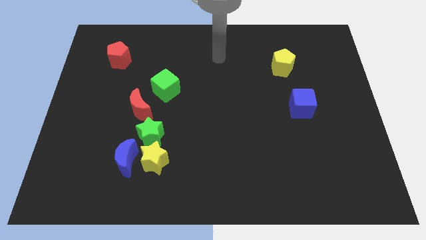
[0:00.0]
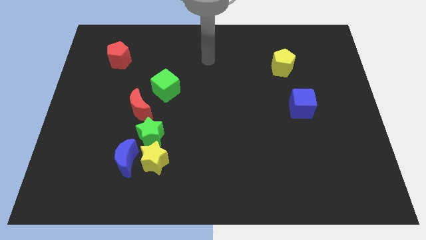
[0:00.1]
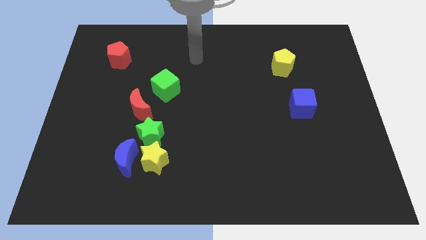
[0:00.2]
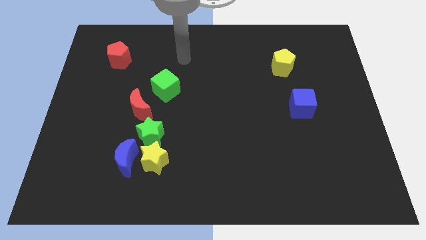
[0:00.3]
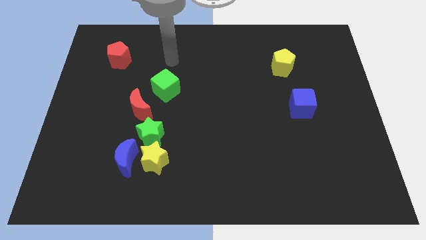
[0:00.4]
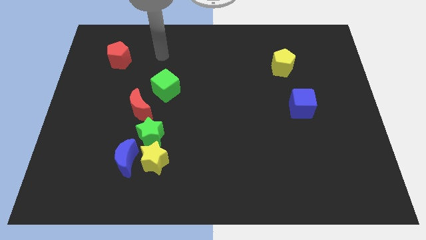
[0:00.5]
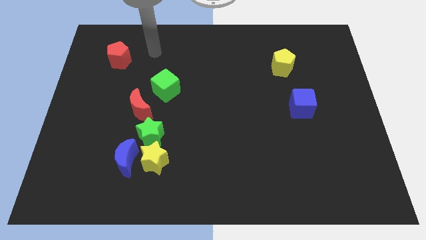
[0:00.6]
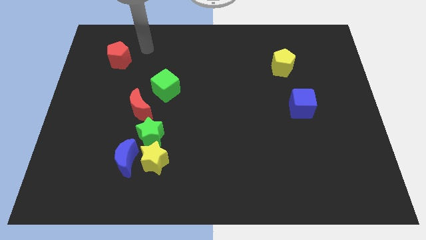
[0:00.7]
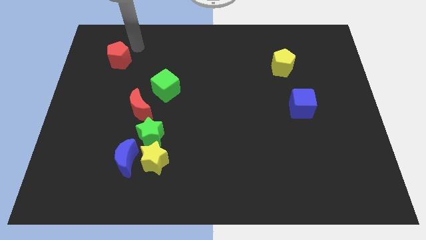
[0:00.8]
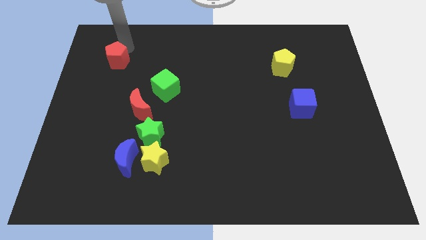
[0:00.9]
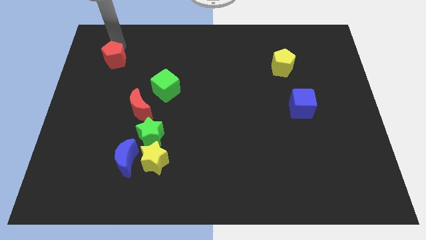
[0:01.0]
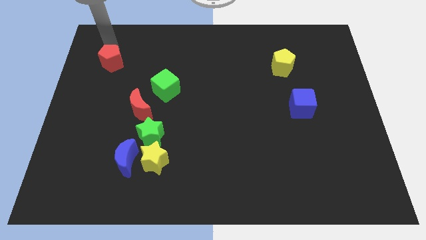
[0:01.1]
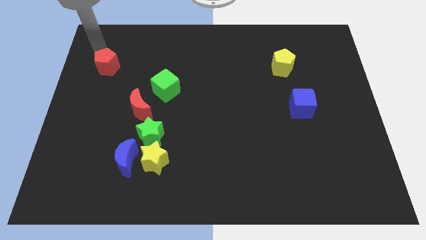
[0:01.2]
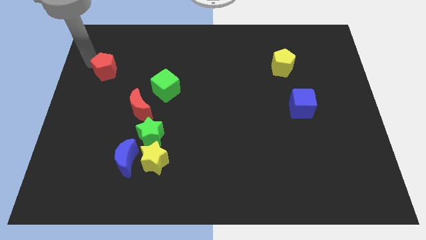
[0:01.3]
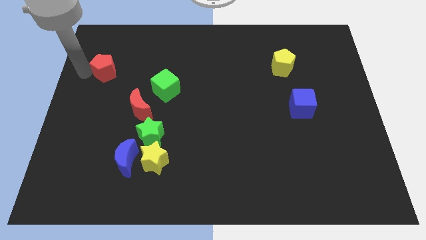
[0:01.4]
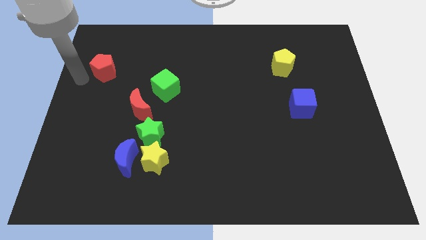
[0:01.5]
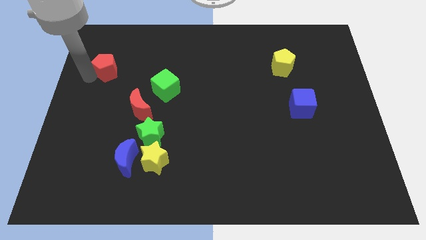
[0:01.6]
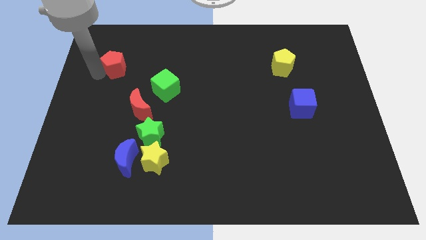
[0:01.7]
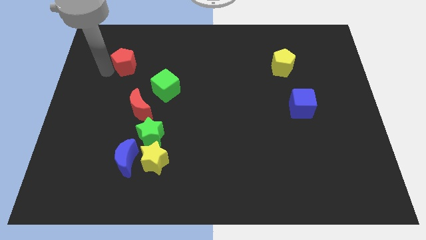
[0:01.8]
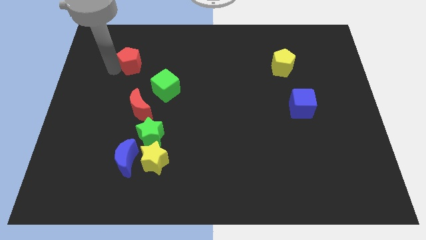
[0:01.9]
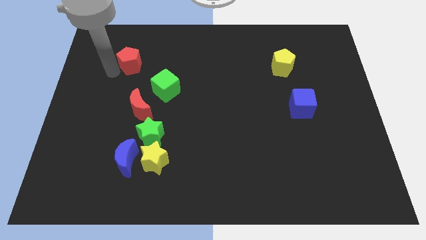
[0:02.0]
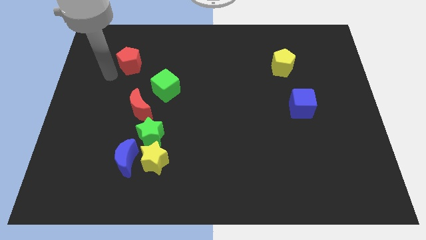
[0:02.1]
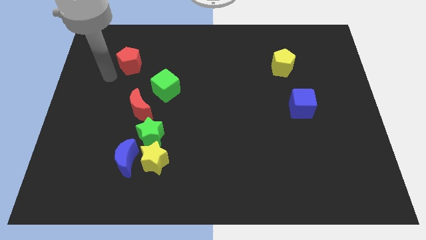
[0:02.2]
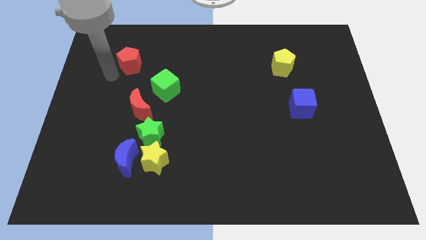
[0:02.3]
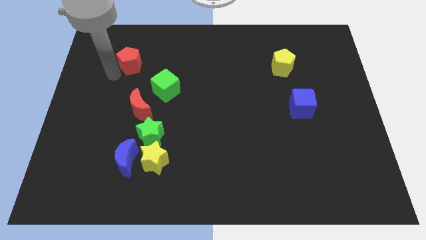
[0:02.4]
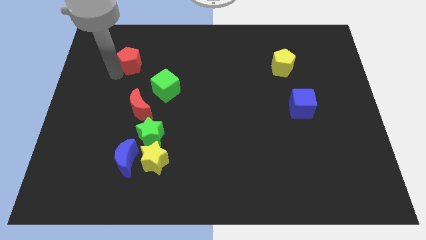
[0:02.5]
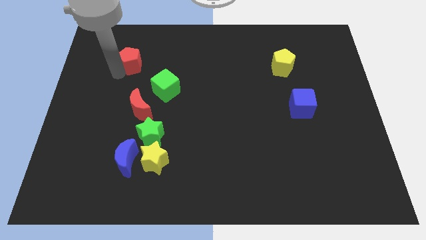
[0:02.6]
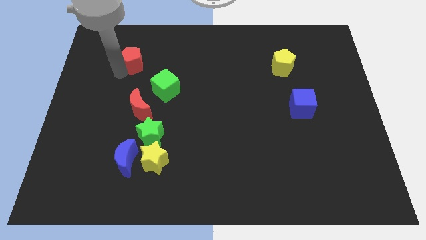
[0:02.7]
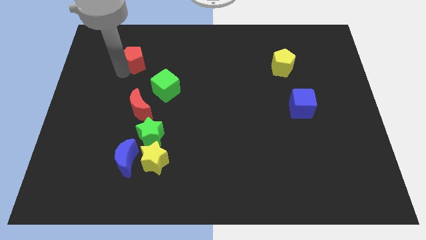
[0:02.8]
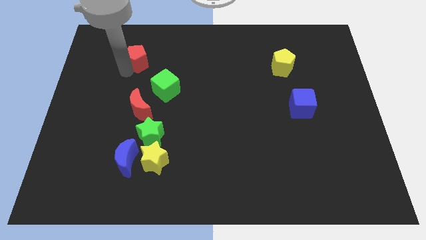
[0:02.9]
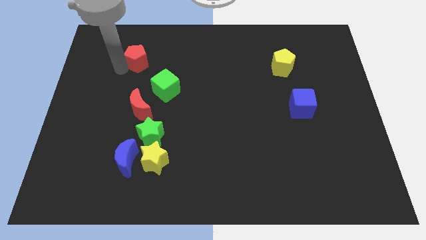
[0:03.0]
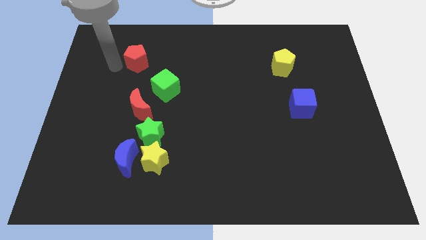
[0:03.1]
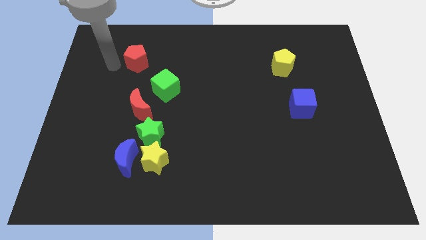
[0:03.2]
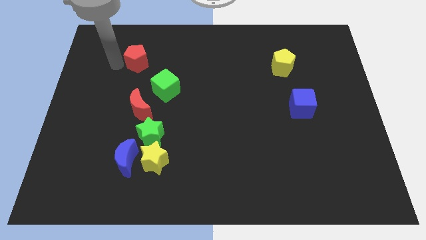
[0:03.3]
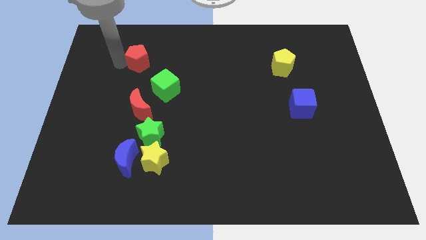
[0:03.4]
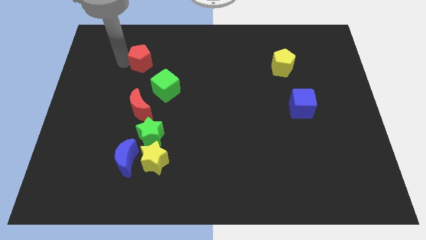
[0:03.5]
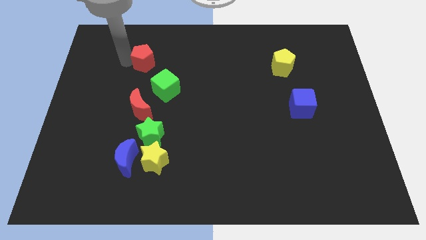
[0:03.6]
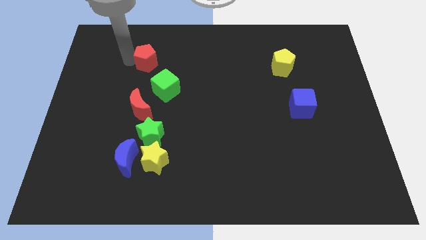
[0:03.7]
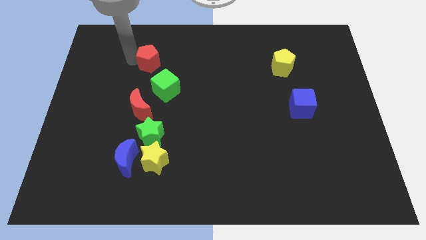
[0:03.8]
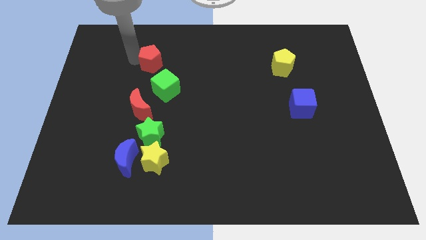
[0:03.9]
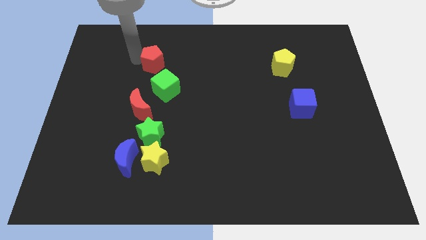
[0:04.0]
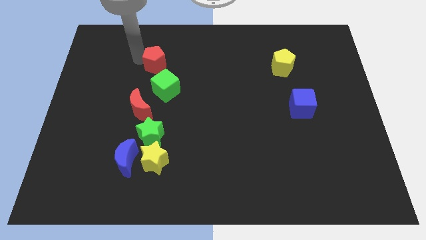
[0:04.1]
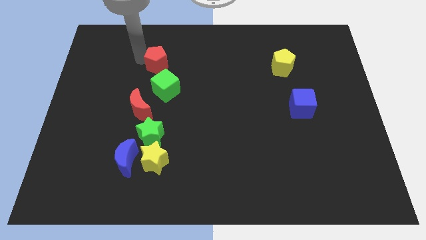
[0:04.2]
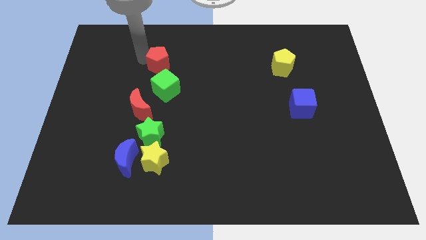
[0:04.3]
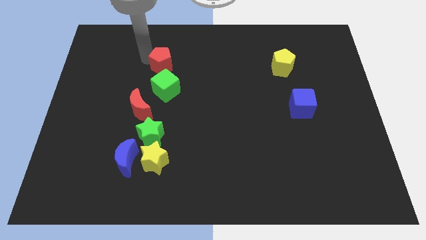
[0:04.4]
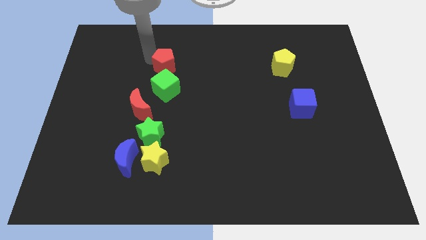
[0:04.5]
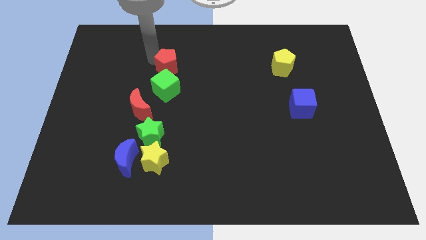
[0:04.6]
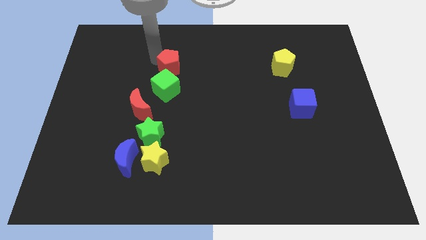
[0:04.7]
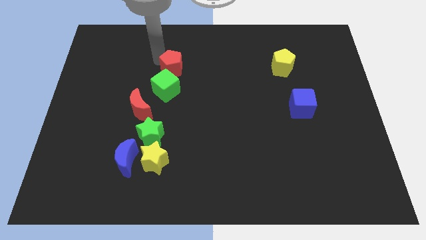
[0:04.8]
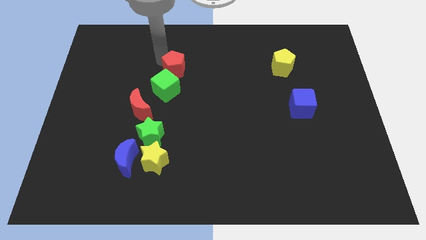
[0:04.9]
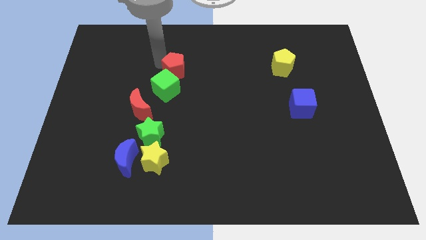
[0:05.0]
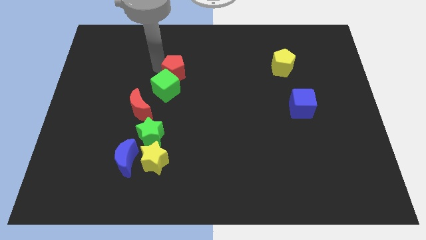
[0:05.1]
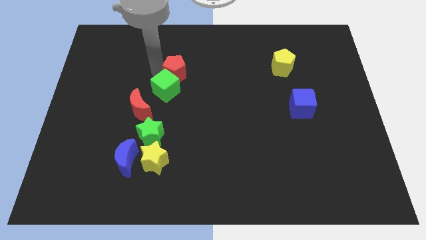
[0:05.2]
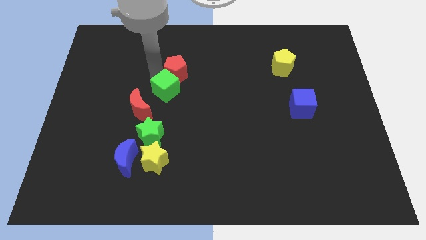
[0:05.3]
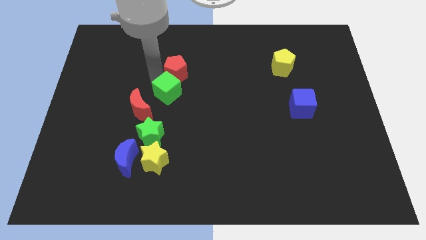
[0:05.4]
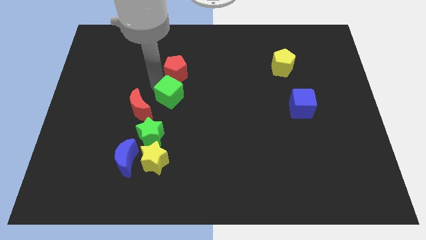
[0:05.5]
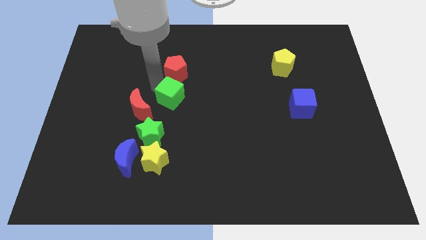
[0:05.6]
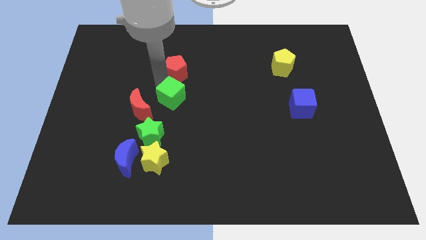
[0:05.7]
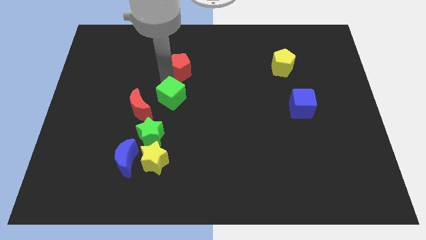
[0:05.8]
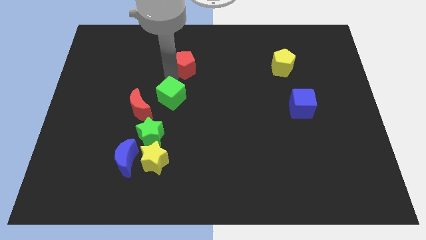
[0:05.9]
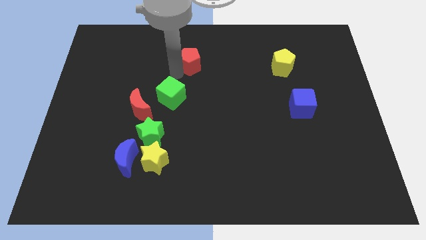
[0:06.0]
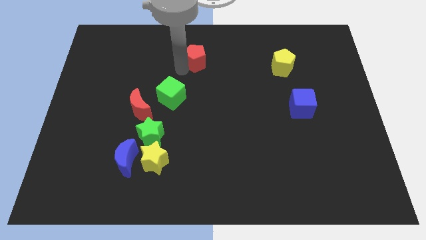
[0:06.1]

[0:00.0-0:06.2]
move the red pentagon right

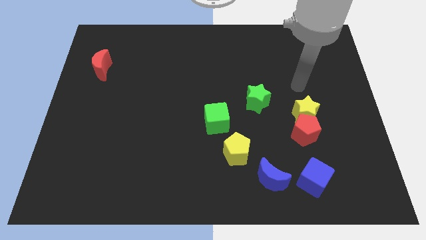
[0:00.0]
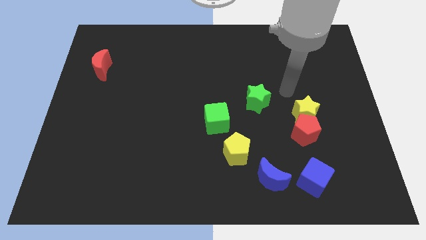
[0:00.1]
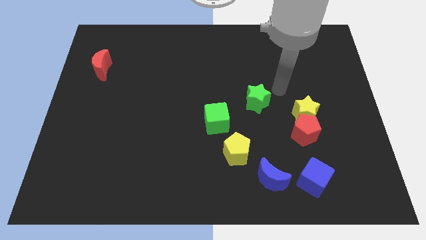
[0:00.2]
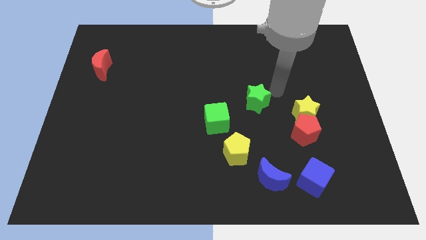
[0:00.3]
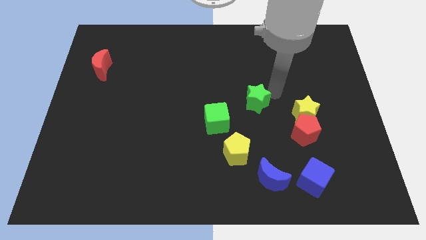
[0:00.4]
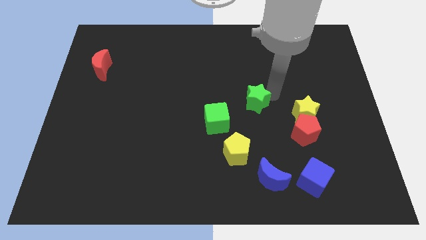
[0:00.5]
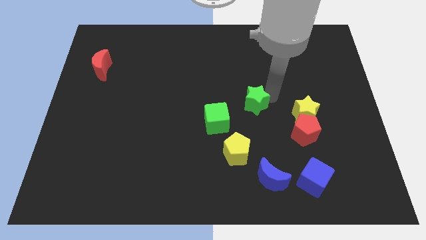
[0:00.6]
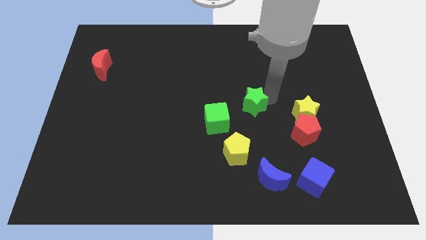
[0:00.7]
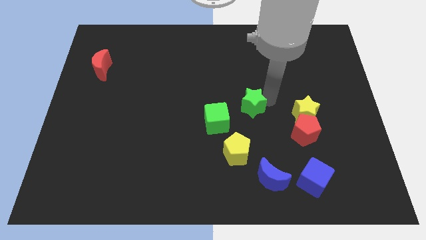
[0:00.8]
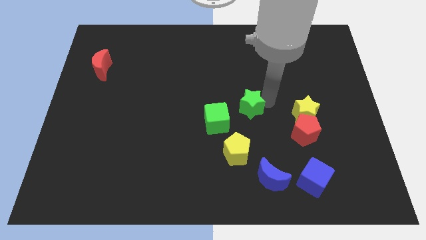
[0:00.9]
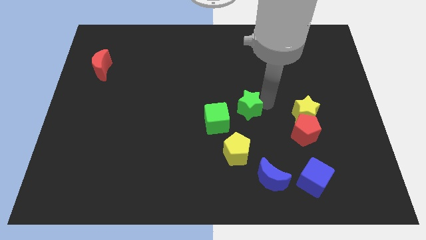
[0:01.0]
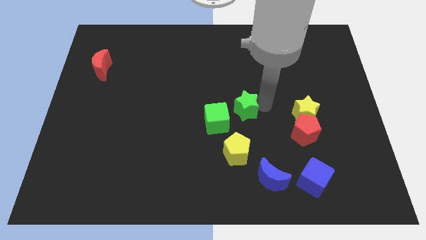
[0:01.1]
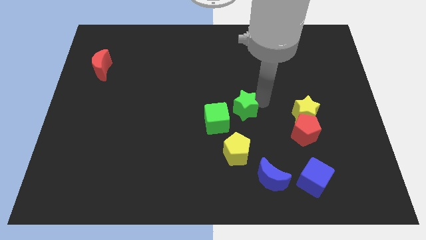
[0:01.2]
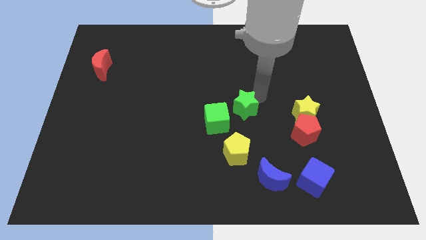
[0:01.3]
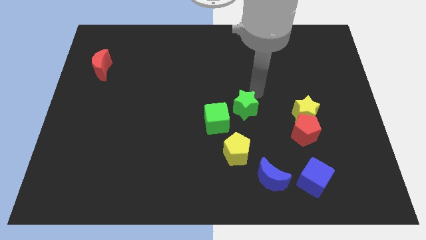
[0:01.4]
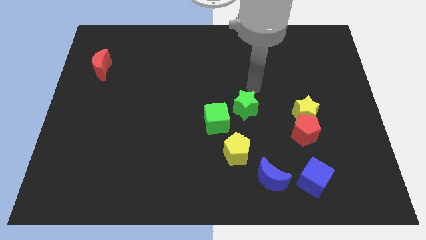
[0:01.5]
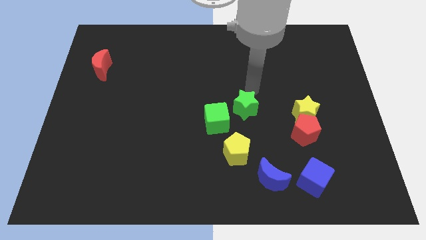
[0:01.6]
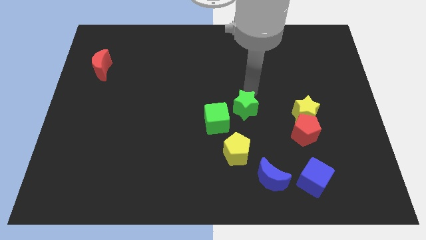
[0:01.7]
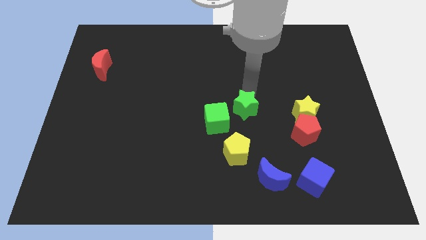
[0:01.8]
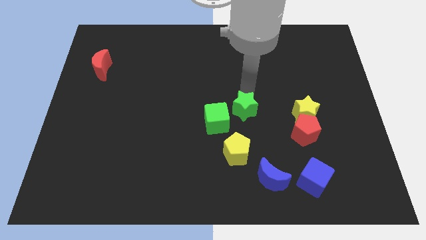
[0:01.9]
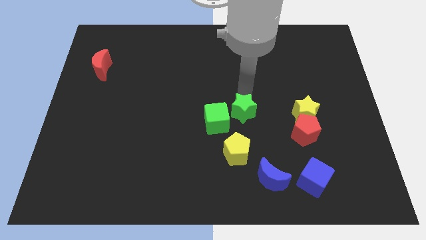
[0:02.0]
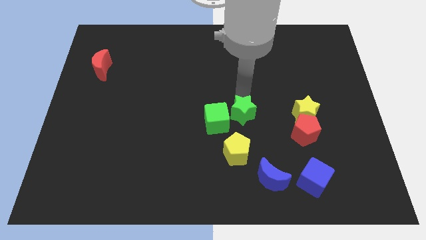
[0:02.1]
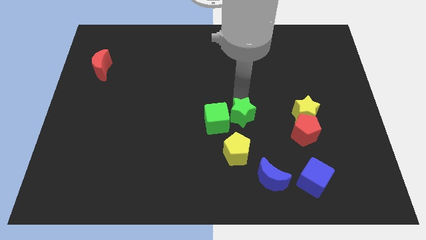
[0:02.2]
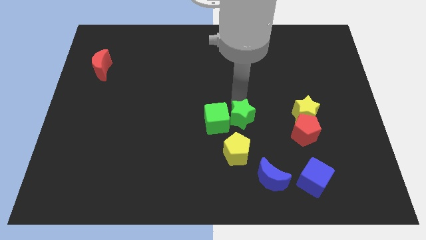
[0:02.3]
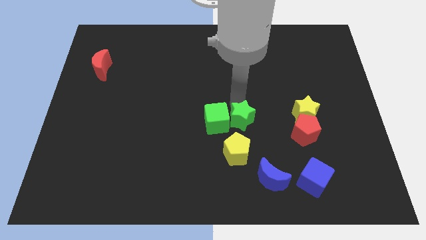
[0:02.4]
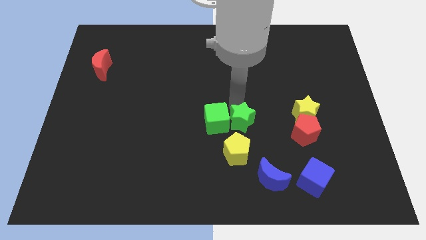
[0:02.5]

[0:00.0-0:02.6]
slightly push the green star down and then left
